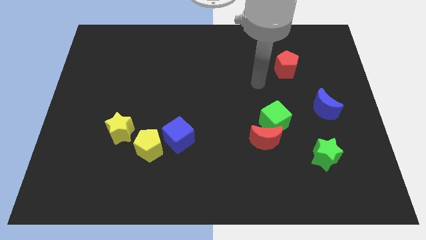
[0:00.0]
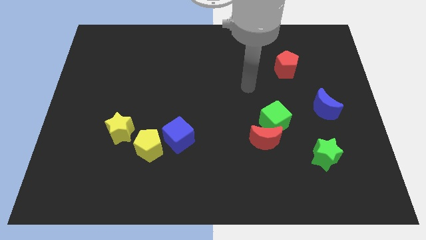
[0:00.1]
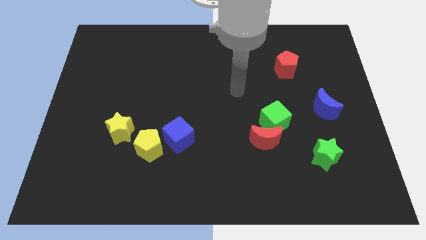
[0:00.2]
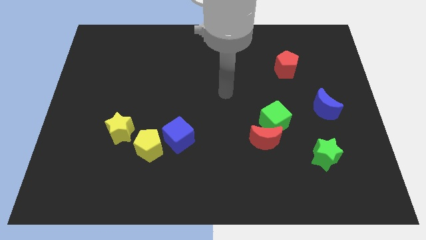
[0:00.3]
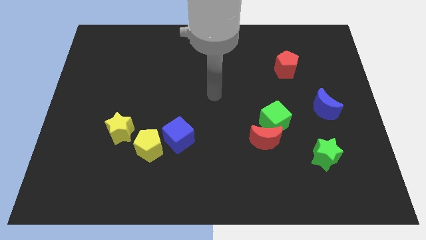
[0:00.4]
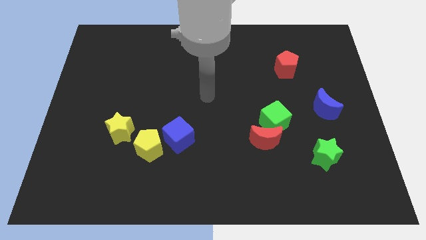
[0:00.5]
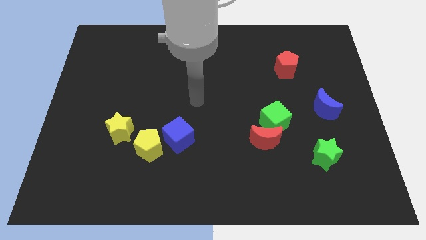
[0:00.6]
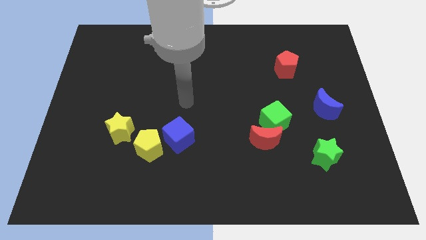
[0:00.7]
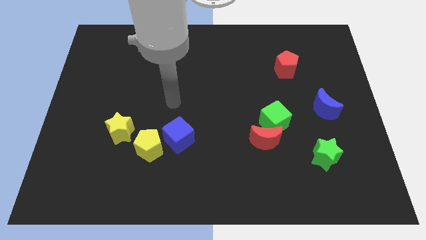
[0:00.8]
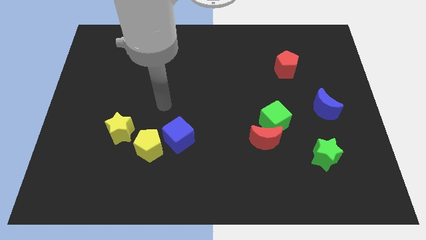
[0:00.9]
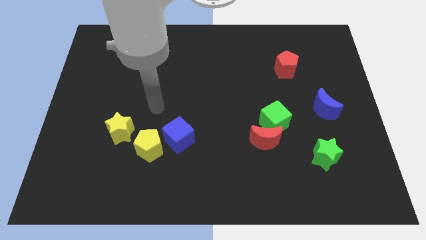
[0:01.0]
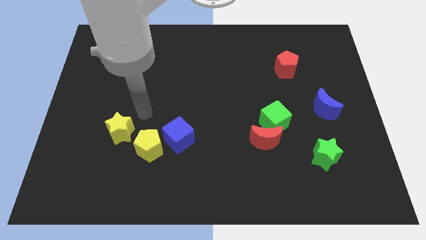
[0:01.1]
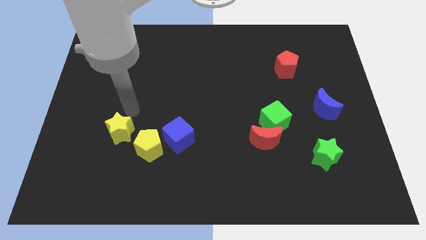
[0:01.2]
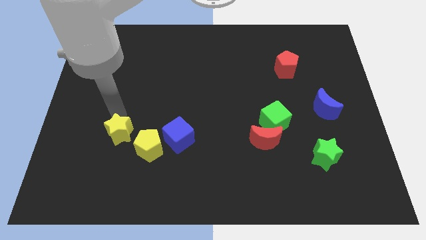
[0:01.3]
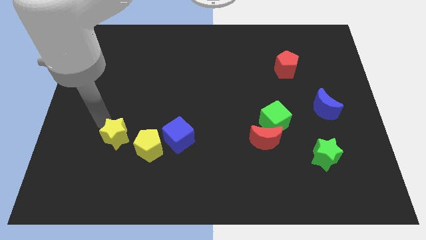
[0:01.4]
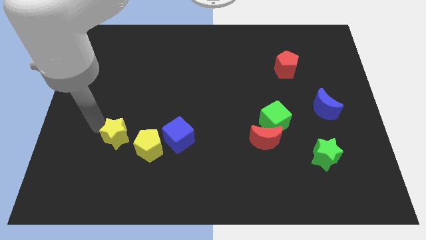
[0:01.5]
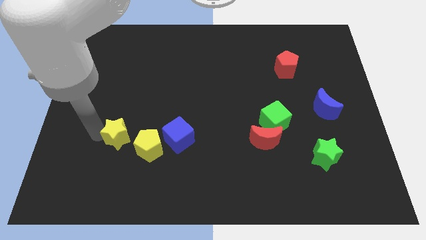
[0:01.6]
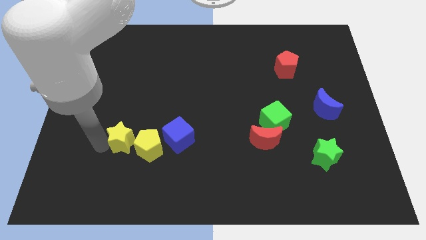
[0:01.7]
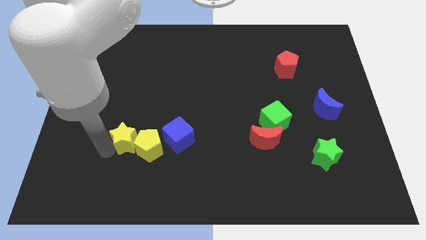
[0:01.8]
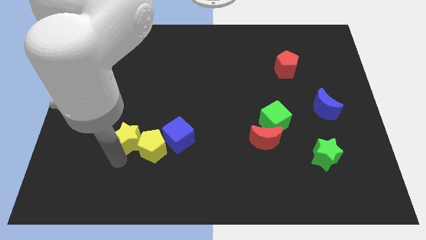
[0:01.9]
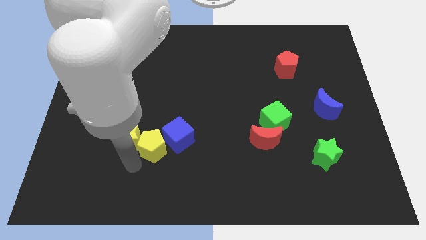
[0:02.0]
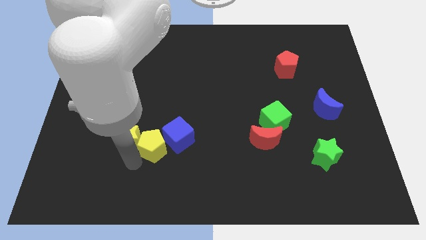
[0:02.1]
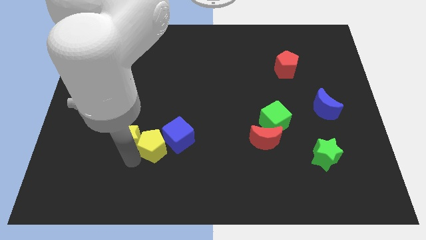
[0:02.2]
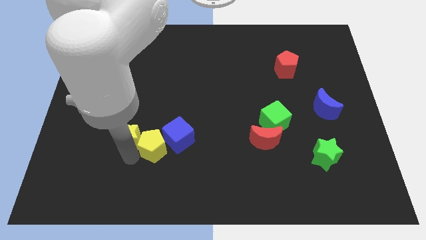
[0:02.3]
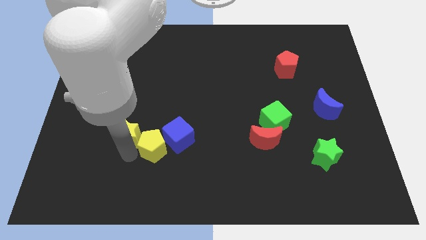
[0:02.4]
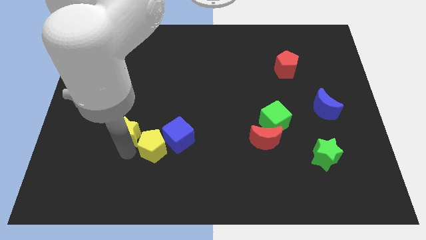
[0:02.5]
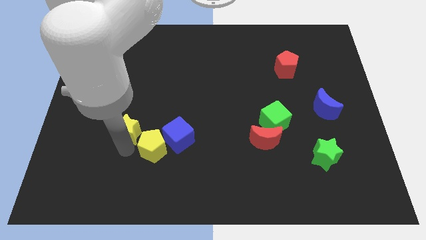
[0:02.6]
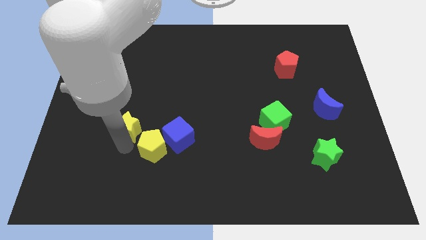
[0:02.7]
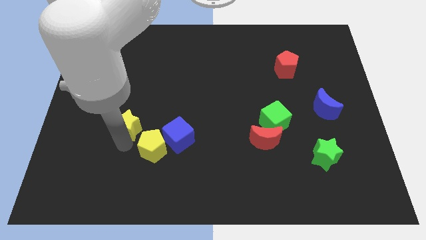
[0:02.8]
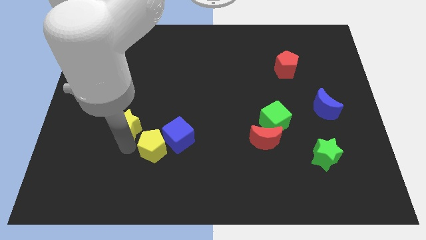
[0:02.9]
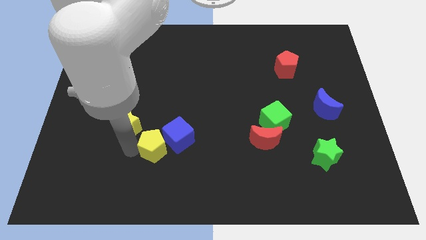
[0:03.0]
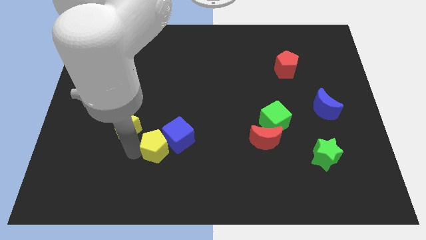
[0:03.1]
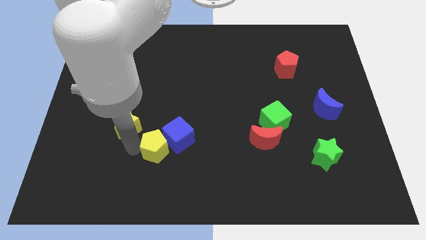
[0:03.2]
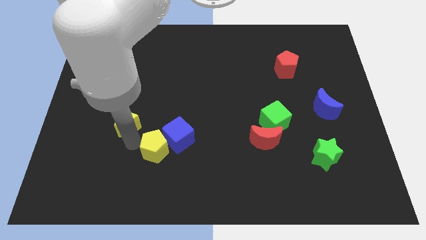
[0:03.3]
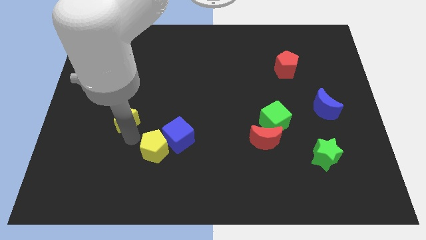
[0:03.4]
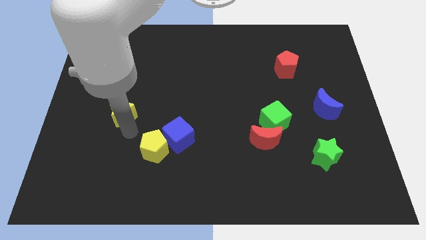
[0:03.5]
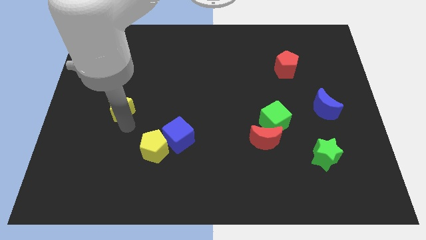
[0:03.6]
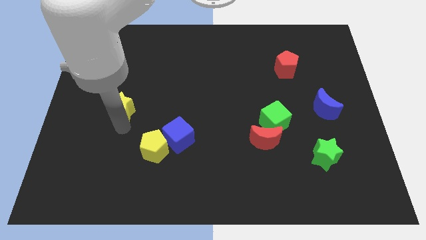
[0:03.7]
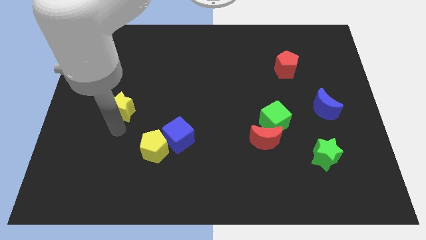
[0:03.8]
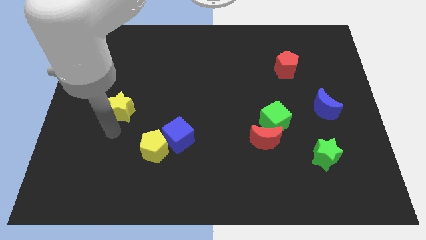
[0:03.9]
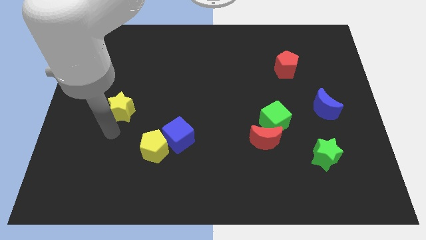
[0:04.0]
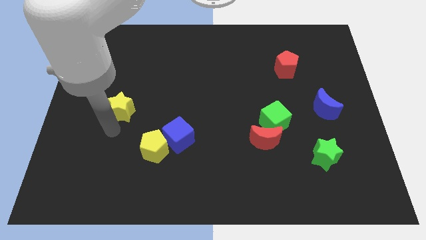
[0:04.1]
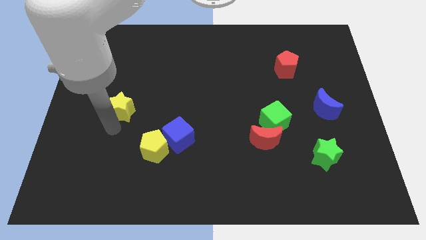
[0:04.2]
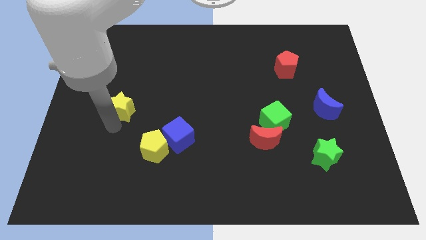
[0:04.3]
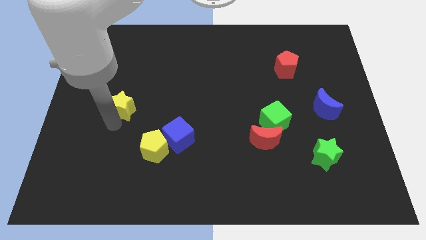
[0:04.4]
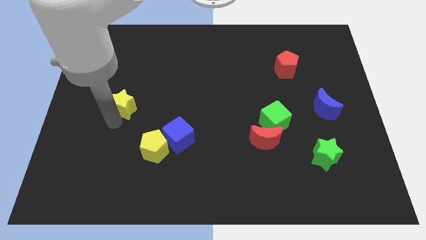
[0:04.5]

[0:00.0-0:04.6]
push the yellow star slightly upwards

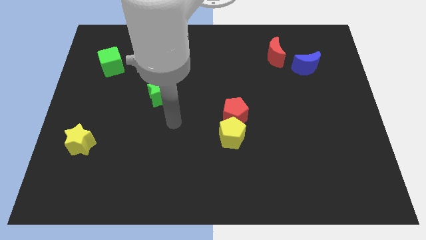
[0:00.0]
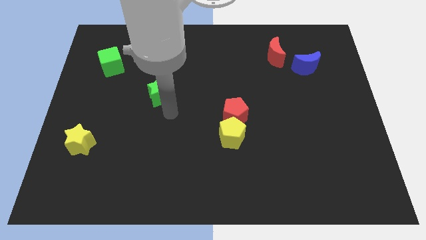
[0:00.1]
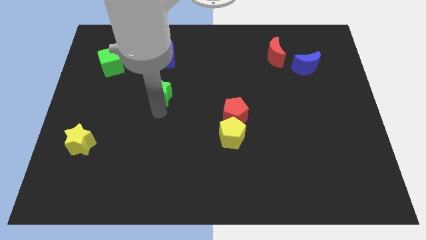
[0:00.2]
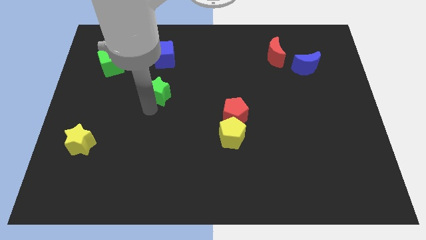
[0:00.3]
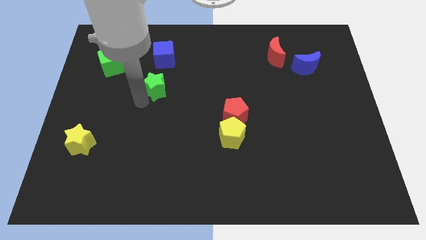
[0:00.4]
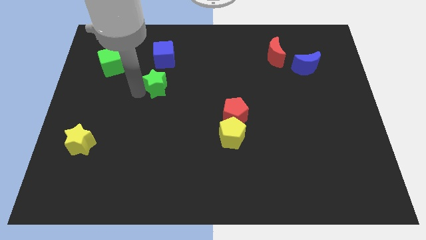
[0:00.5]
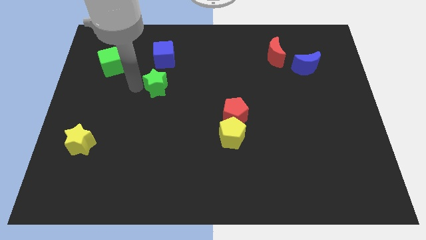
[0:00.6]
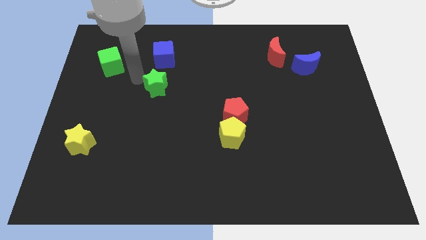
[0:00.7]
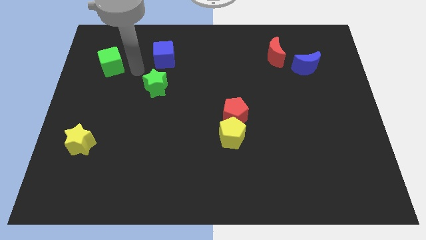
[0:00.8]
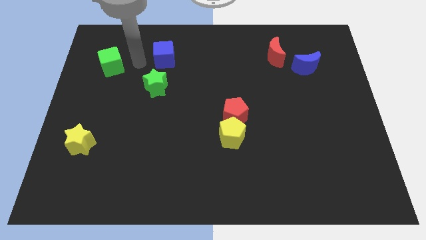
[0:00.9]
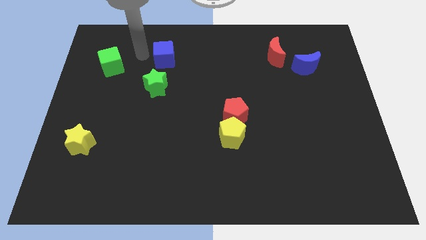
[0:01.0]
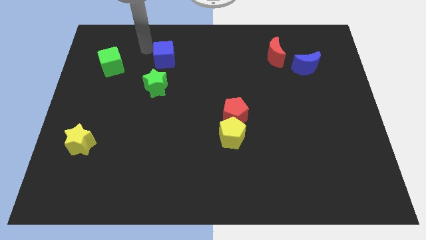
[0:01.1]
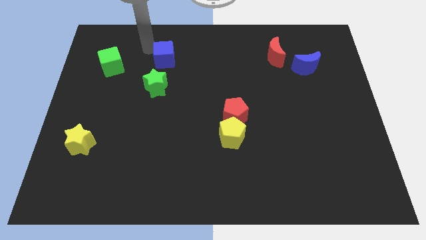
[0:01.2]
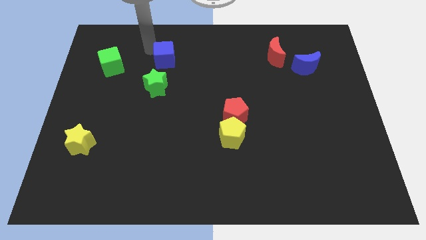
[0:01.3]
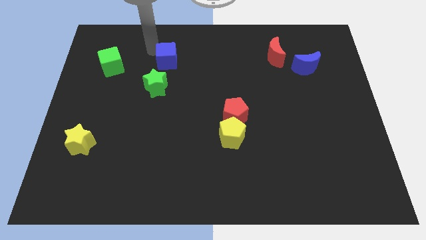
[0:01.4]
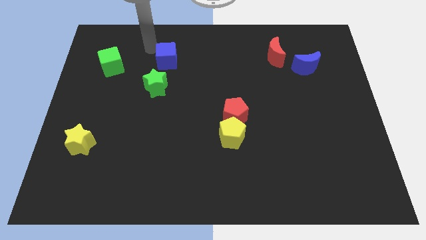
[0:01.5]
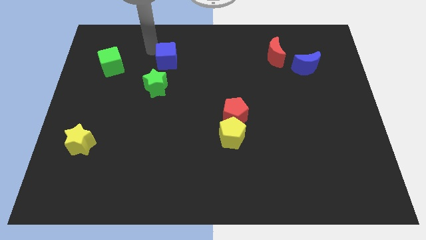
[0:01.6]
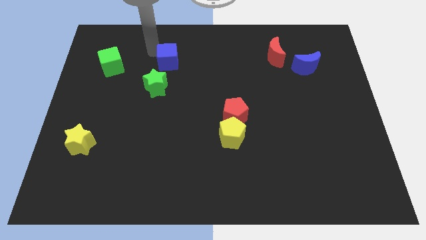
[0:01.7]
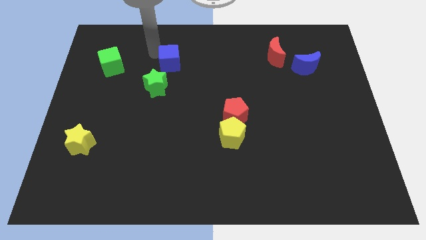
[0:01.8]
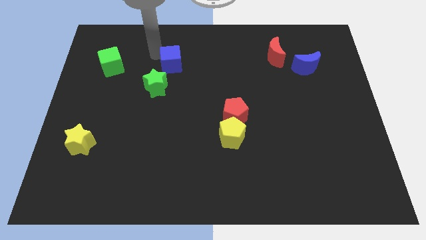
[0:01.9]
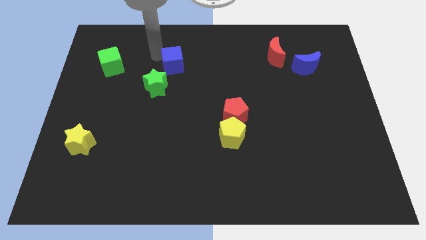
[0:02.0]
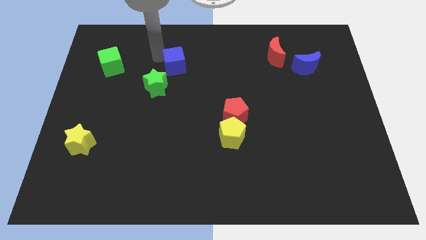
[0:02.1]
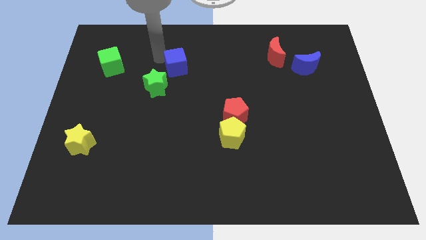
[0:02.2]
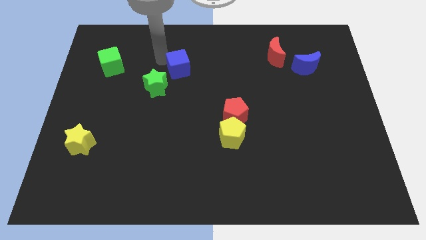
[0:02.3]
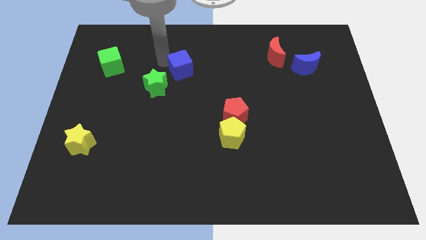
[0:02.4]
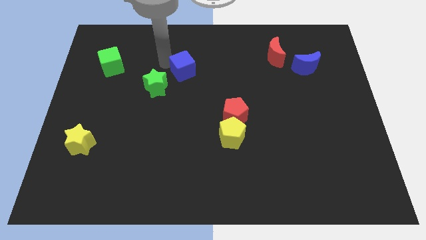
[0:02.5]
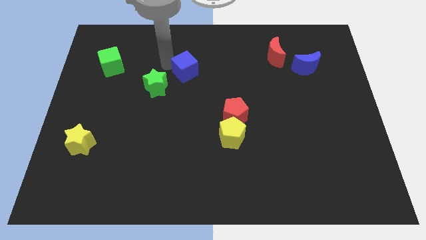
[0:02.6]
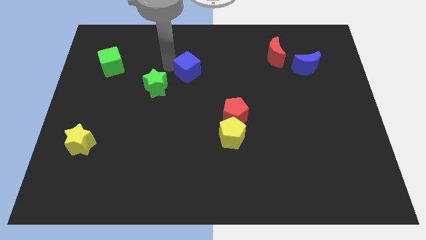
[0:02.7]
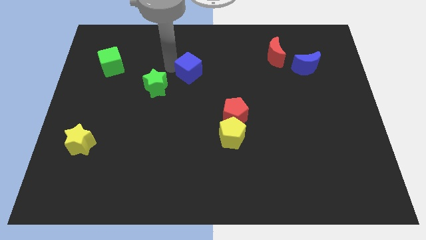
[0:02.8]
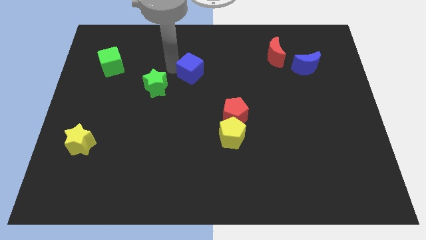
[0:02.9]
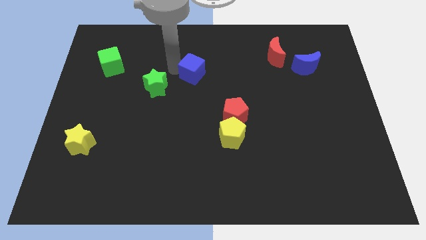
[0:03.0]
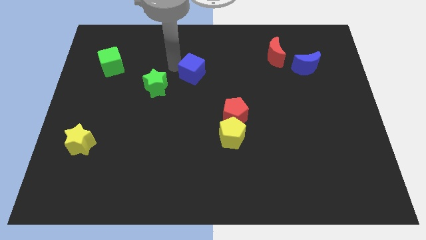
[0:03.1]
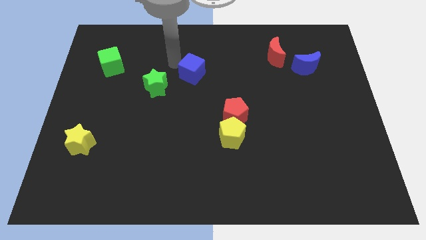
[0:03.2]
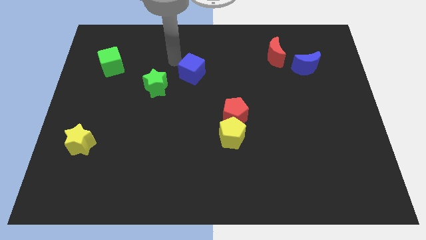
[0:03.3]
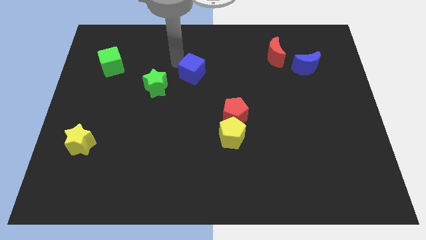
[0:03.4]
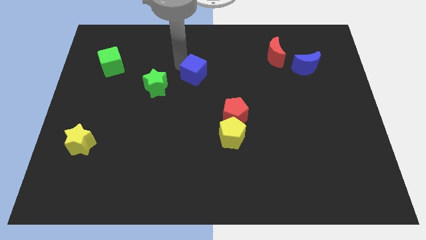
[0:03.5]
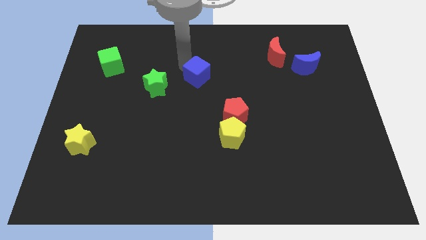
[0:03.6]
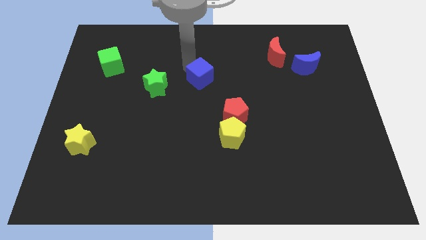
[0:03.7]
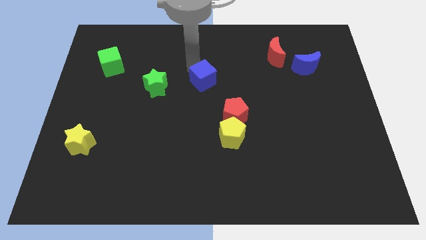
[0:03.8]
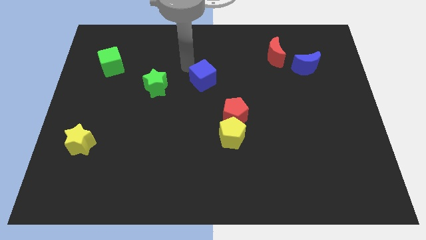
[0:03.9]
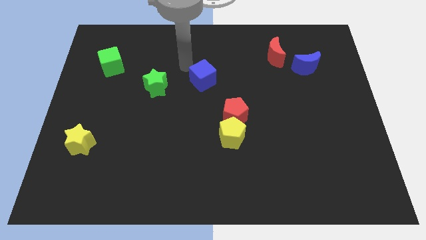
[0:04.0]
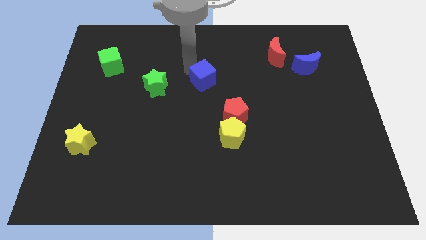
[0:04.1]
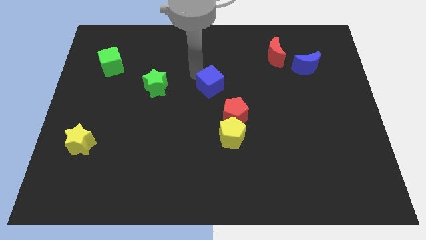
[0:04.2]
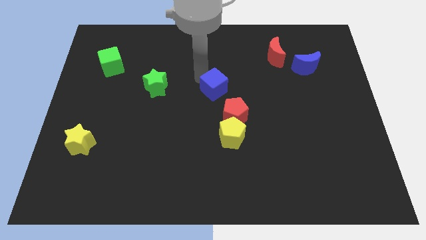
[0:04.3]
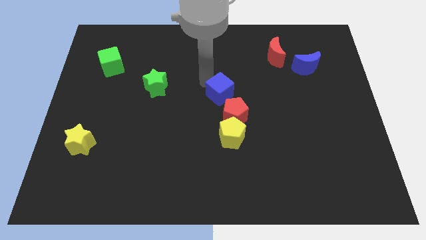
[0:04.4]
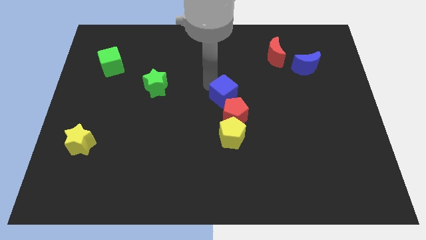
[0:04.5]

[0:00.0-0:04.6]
push the blue cube down and to the right
